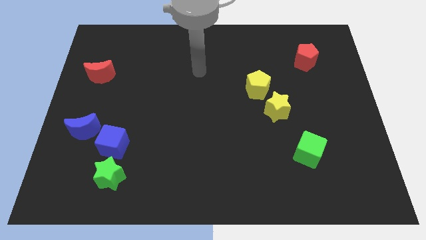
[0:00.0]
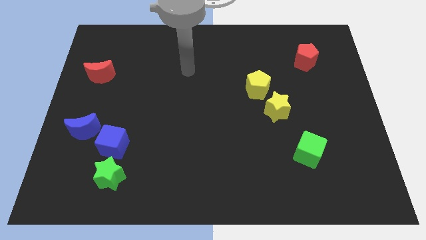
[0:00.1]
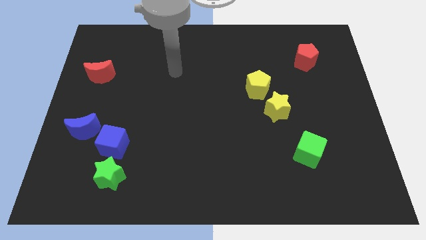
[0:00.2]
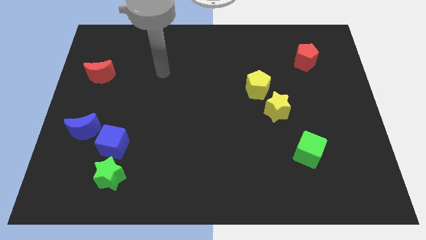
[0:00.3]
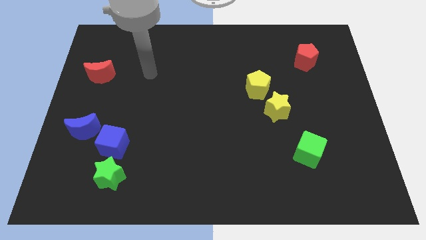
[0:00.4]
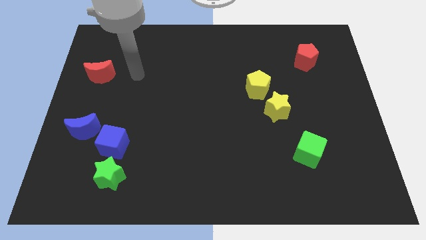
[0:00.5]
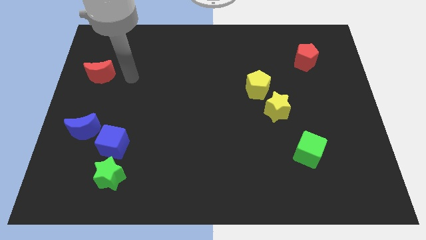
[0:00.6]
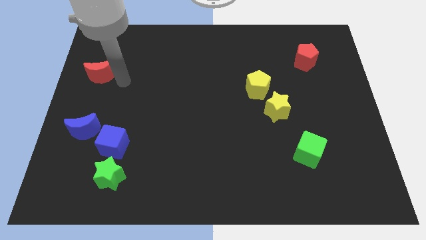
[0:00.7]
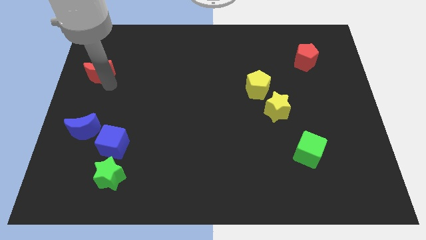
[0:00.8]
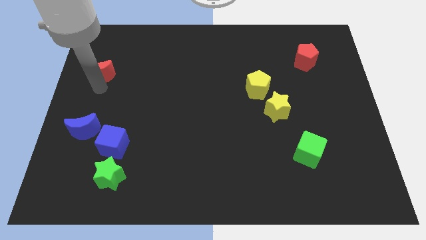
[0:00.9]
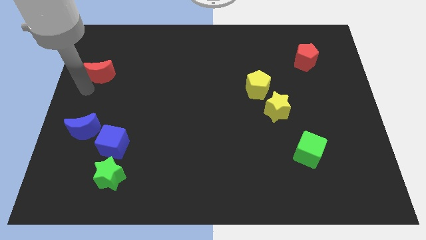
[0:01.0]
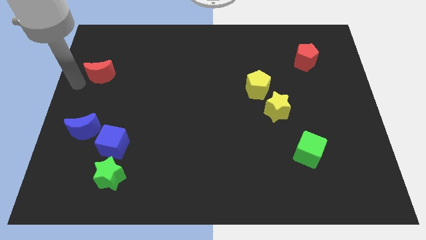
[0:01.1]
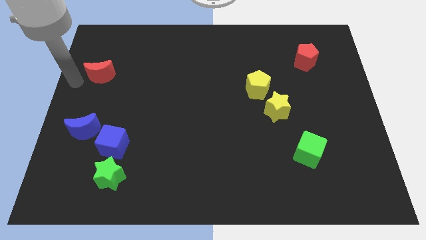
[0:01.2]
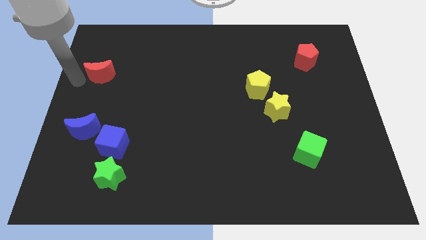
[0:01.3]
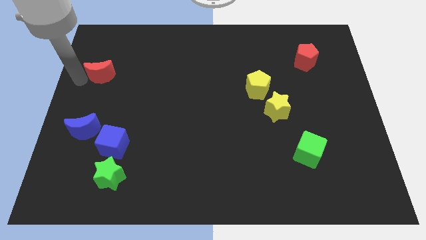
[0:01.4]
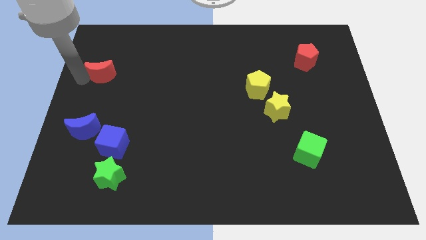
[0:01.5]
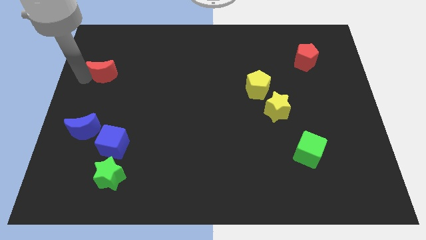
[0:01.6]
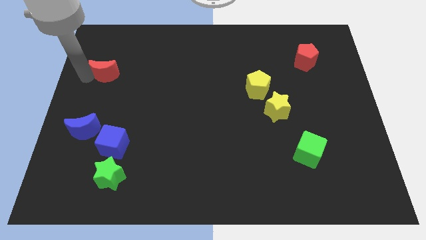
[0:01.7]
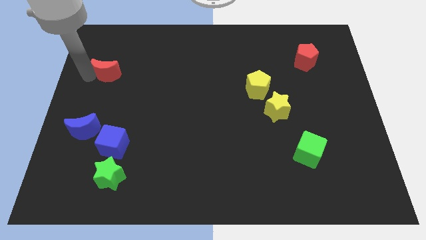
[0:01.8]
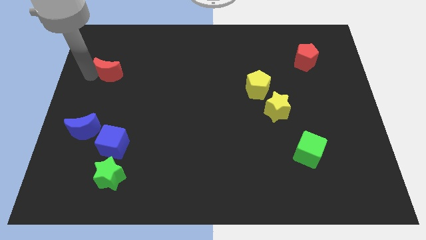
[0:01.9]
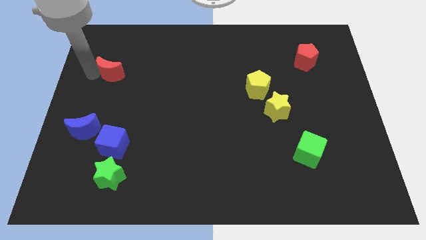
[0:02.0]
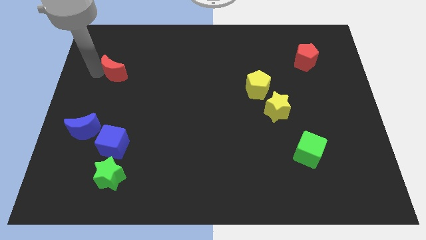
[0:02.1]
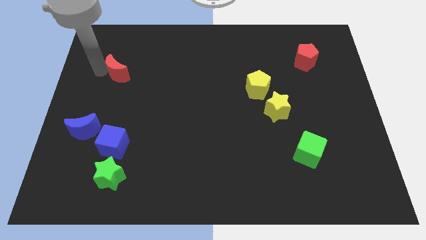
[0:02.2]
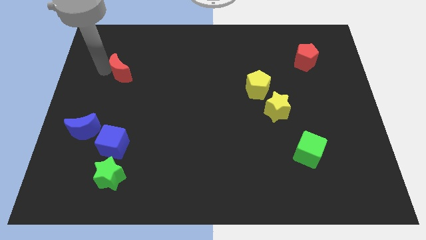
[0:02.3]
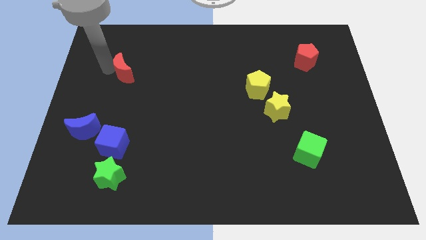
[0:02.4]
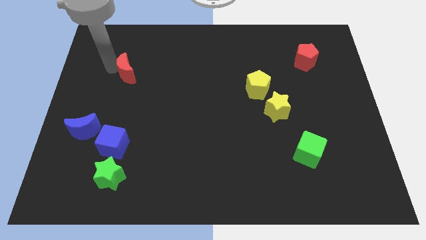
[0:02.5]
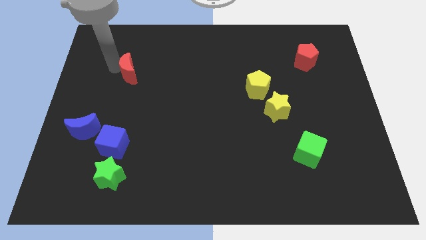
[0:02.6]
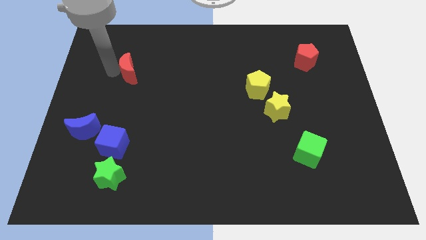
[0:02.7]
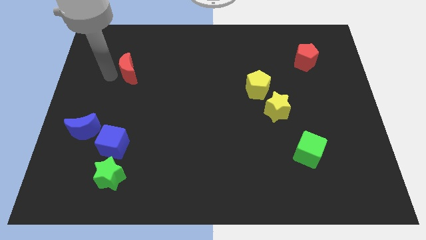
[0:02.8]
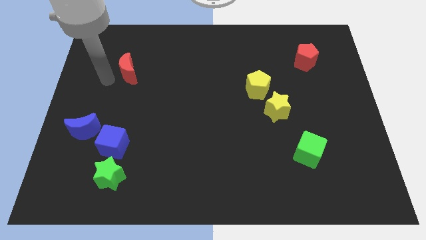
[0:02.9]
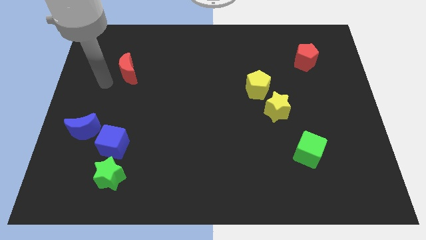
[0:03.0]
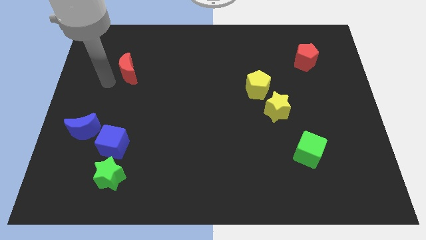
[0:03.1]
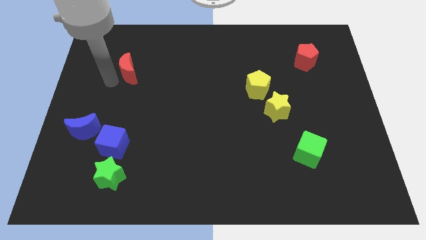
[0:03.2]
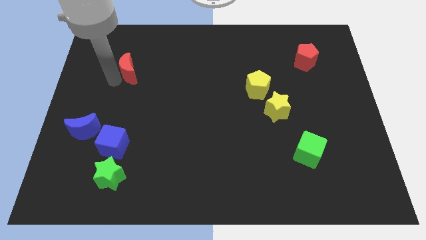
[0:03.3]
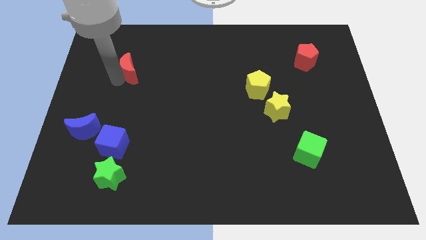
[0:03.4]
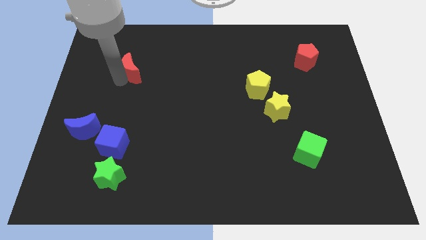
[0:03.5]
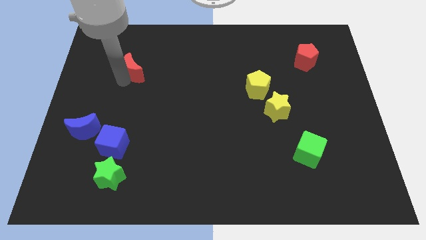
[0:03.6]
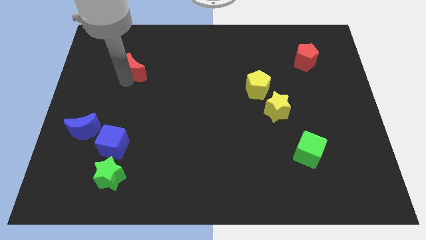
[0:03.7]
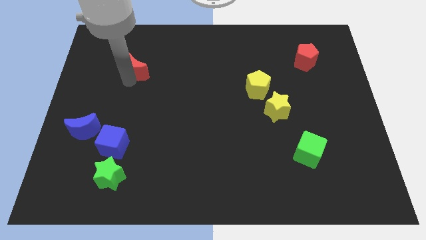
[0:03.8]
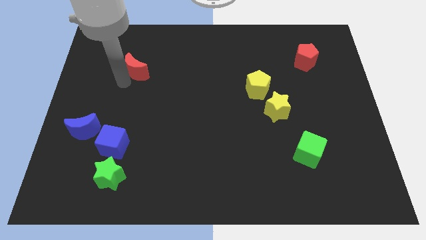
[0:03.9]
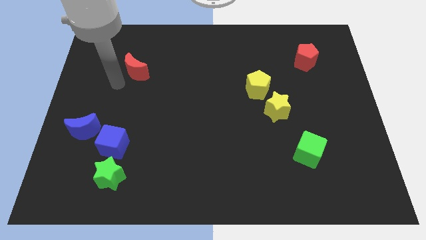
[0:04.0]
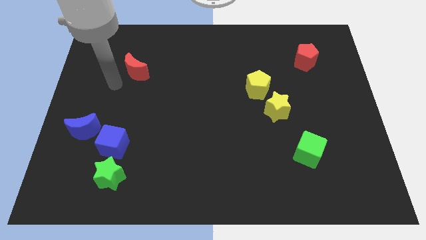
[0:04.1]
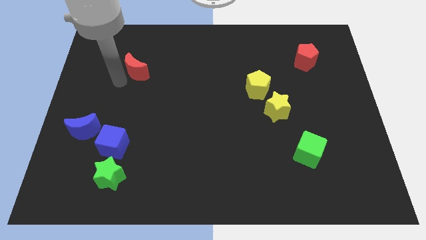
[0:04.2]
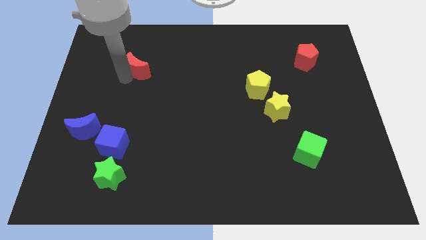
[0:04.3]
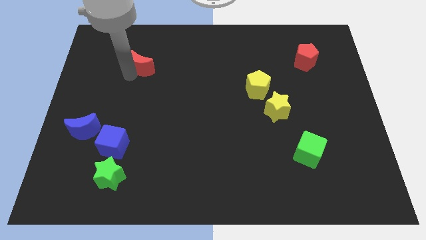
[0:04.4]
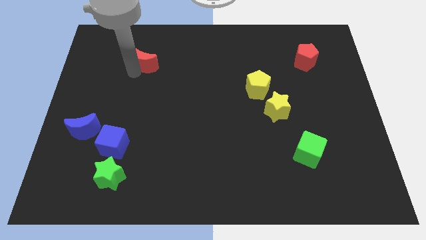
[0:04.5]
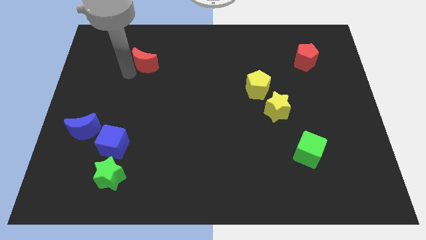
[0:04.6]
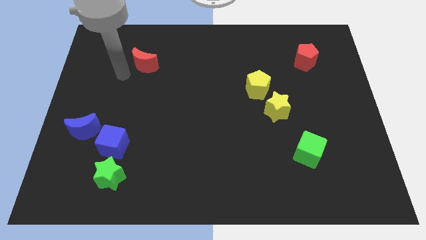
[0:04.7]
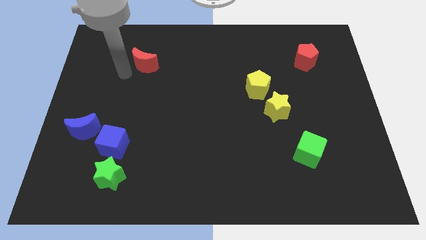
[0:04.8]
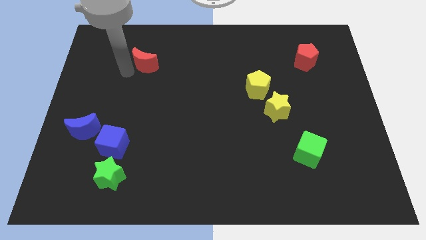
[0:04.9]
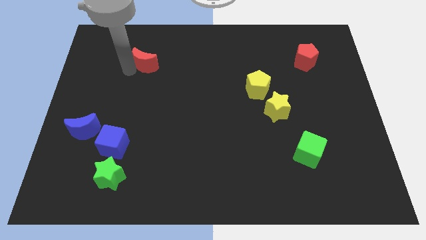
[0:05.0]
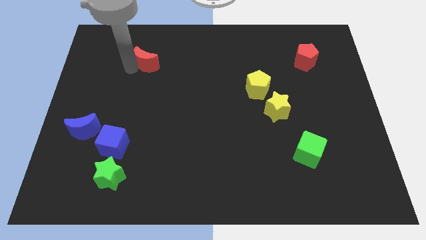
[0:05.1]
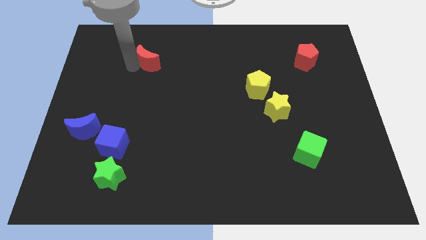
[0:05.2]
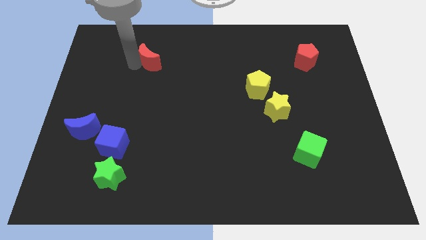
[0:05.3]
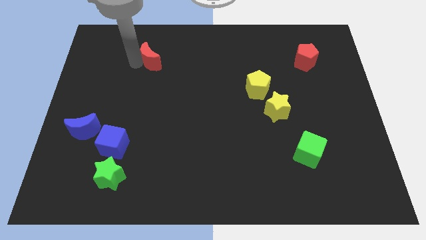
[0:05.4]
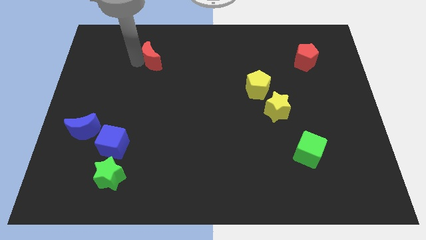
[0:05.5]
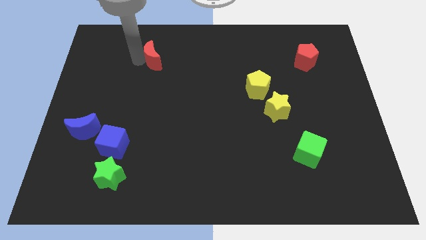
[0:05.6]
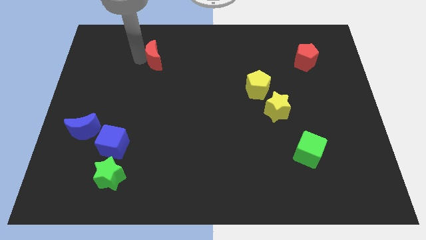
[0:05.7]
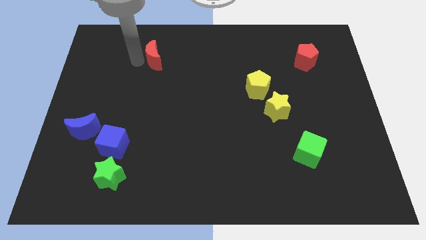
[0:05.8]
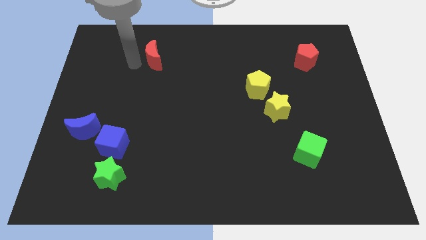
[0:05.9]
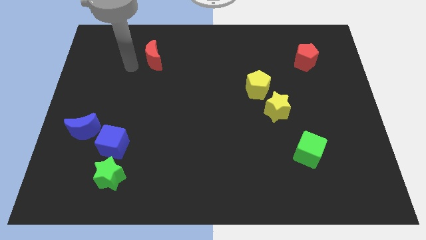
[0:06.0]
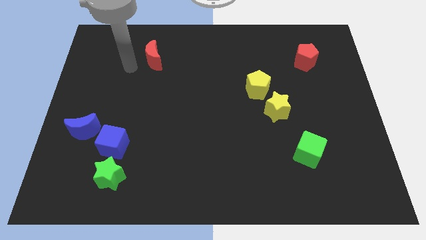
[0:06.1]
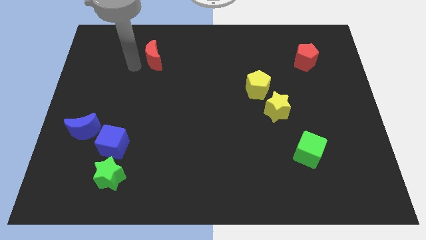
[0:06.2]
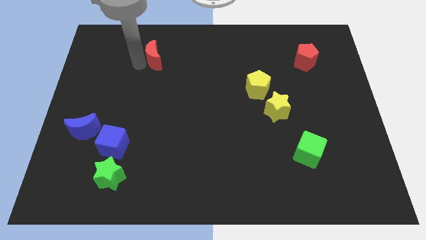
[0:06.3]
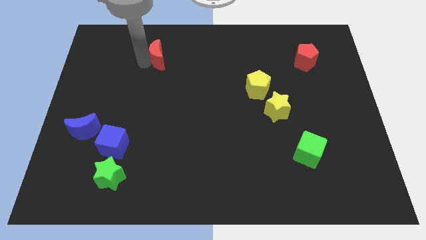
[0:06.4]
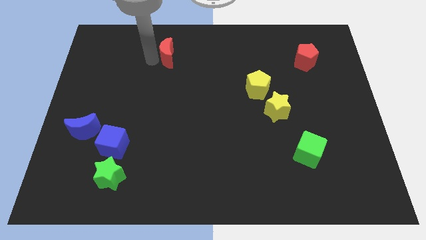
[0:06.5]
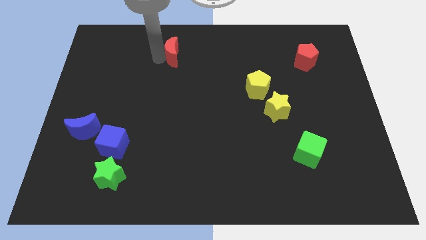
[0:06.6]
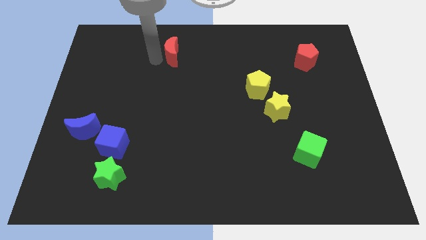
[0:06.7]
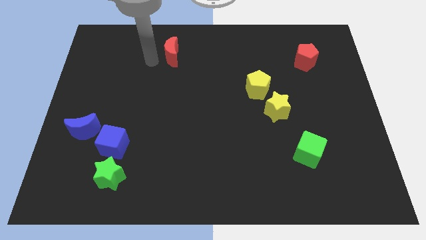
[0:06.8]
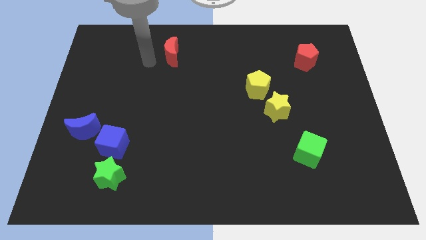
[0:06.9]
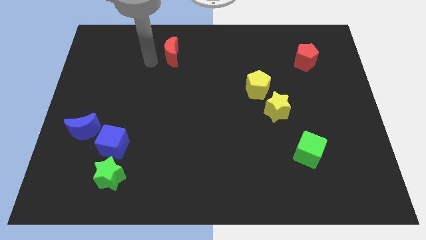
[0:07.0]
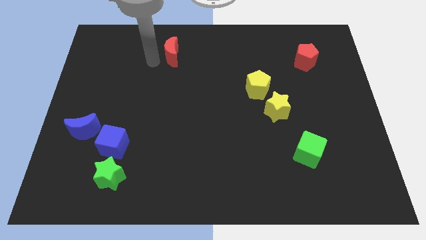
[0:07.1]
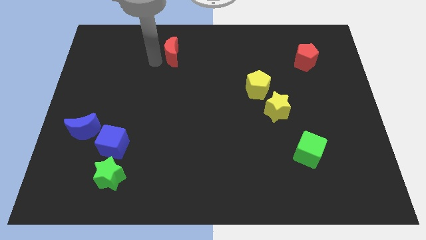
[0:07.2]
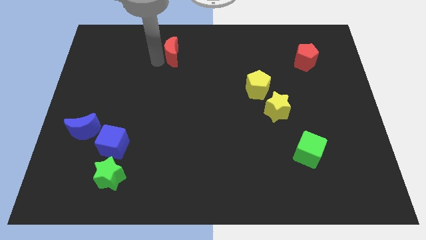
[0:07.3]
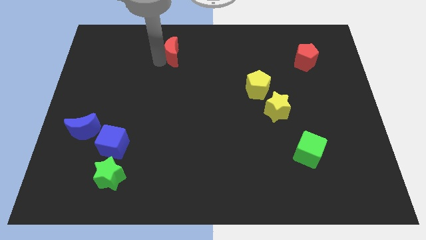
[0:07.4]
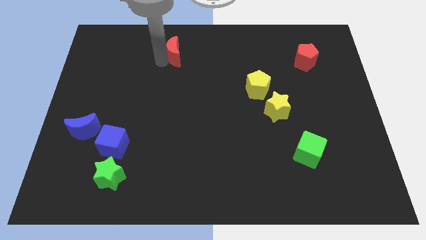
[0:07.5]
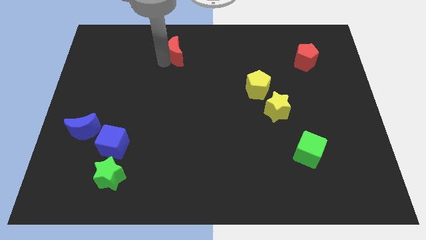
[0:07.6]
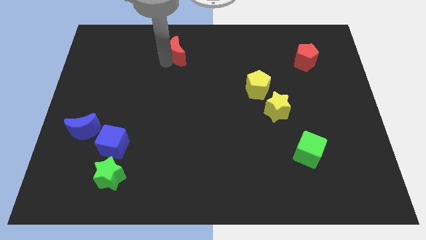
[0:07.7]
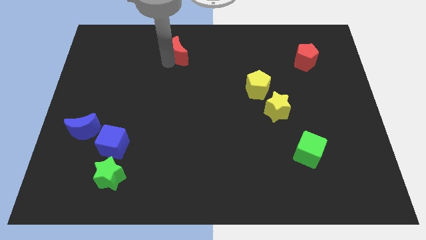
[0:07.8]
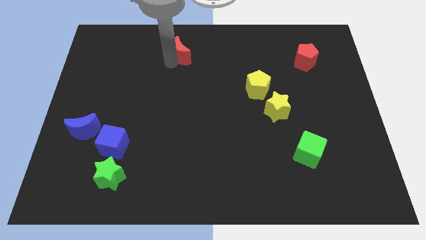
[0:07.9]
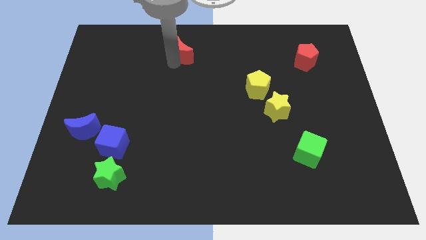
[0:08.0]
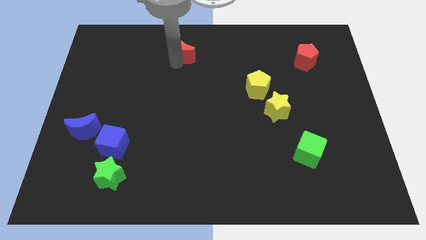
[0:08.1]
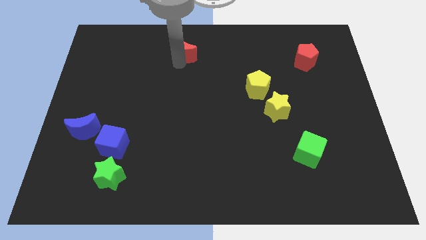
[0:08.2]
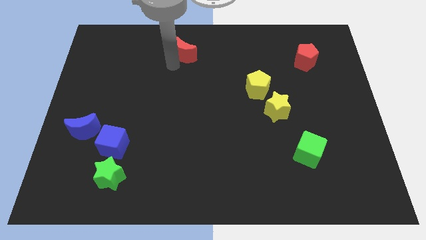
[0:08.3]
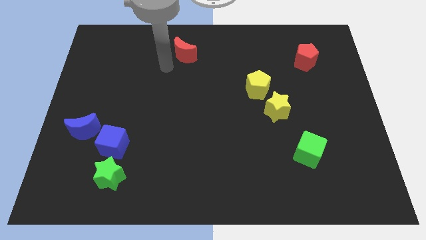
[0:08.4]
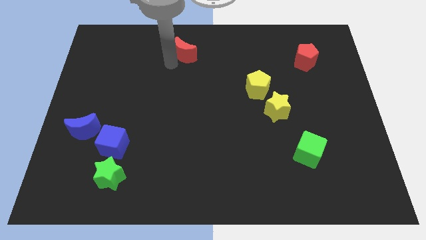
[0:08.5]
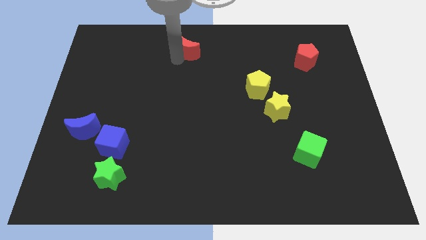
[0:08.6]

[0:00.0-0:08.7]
put the red moon to the top side
